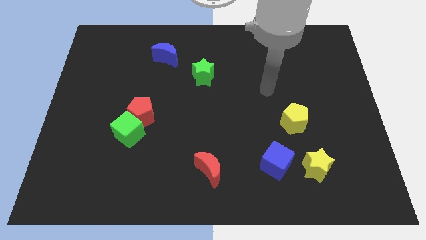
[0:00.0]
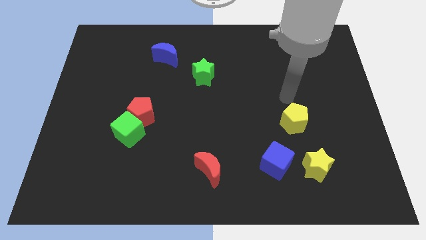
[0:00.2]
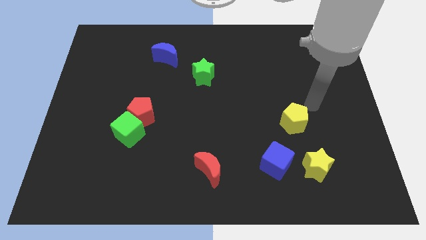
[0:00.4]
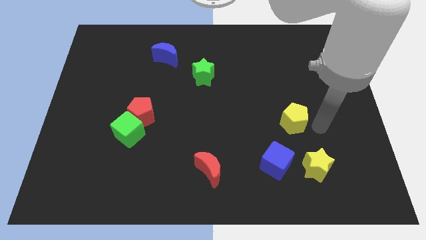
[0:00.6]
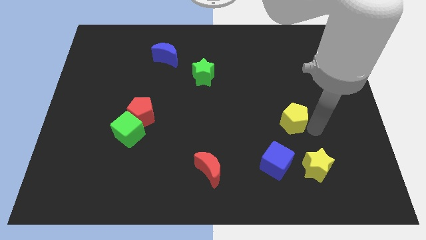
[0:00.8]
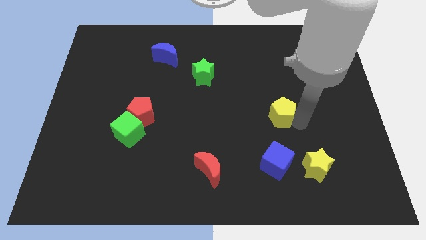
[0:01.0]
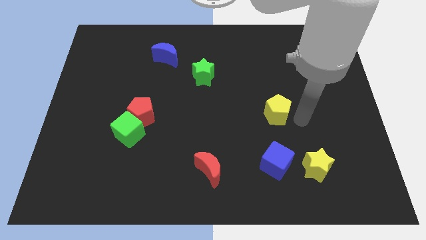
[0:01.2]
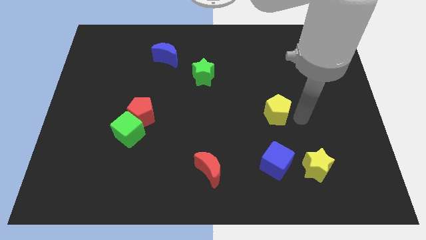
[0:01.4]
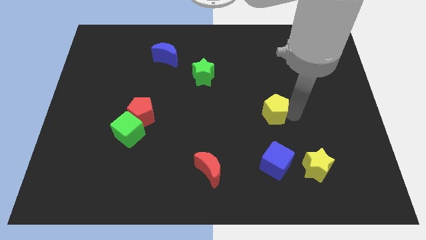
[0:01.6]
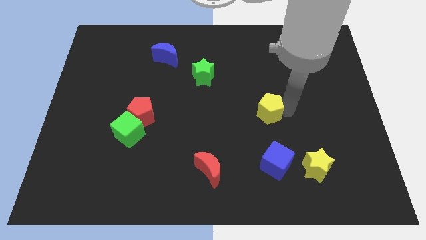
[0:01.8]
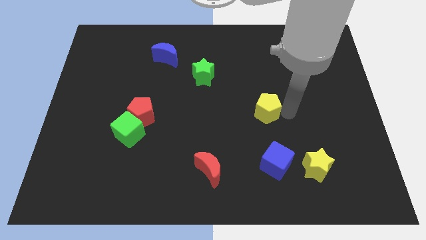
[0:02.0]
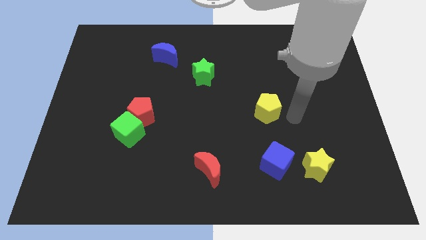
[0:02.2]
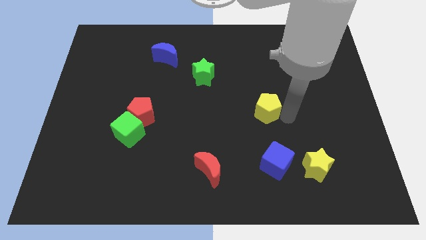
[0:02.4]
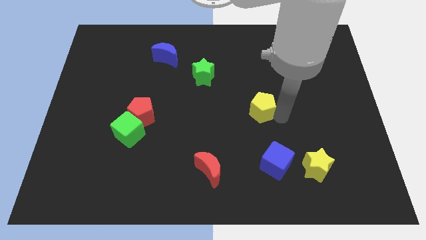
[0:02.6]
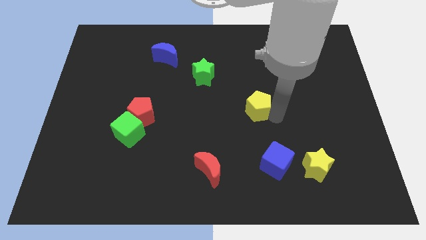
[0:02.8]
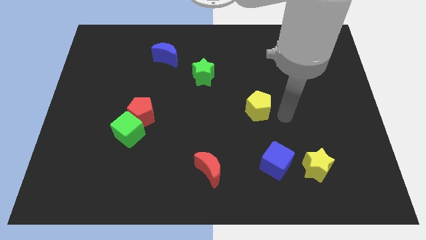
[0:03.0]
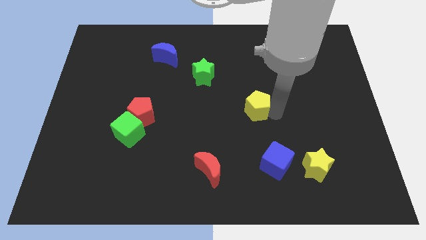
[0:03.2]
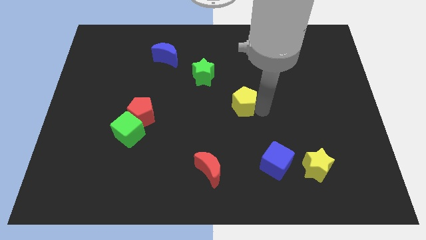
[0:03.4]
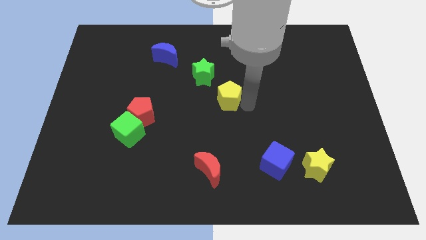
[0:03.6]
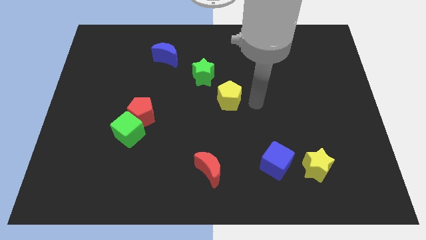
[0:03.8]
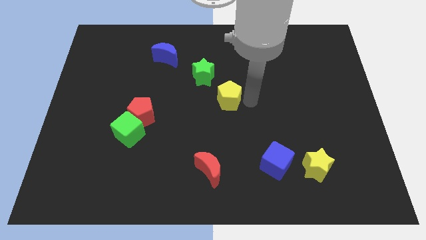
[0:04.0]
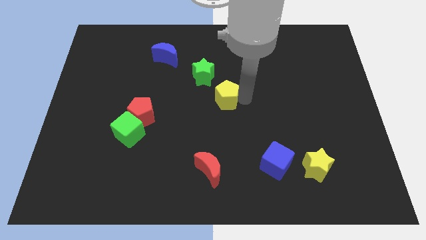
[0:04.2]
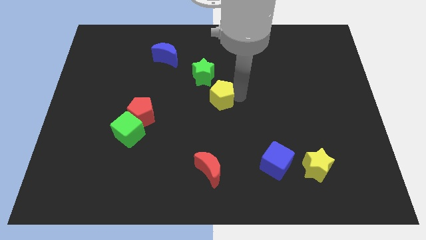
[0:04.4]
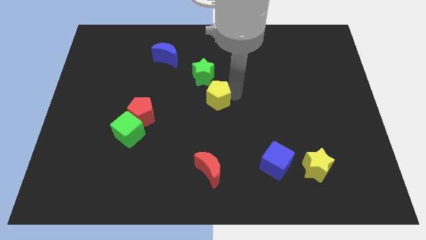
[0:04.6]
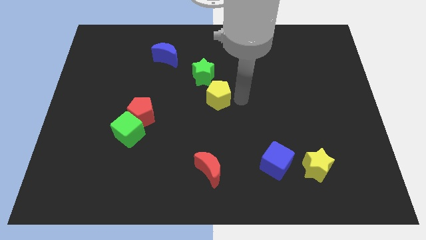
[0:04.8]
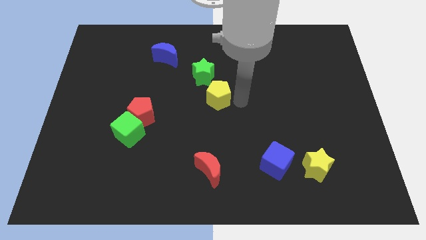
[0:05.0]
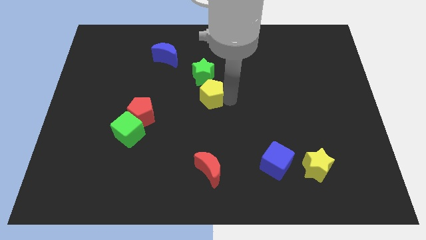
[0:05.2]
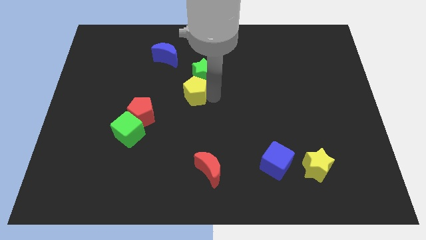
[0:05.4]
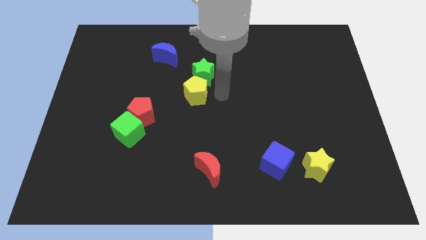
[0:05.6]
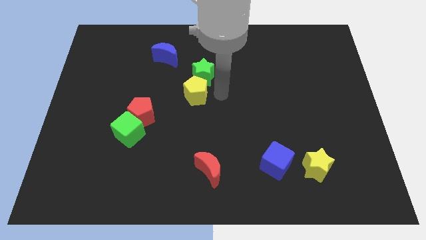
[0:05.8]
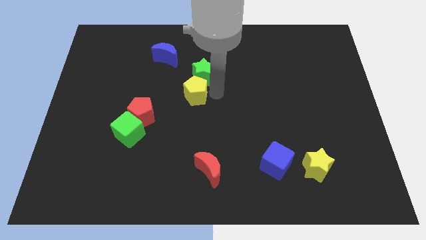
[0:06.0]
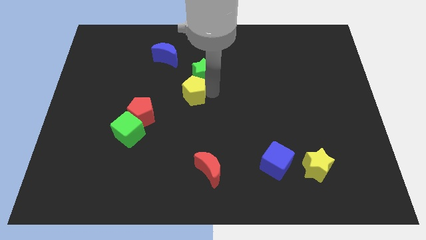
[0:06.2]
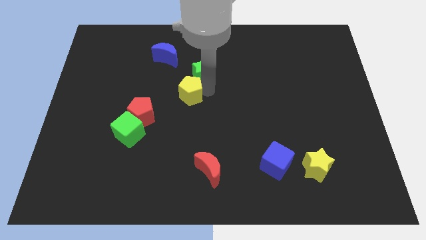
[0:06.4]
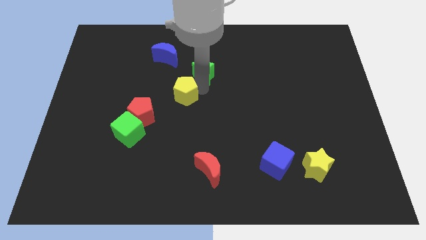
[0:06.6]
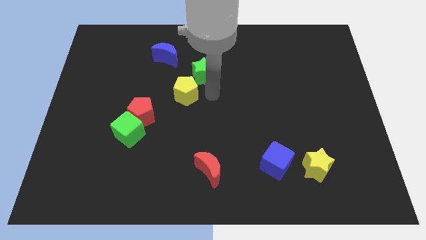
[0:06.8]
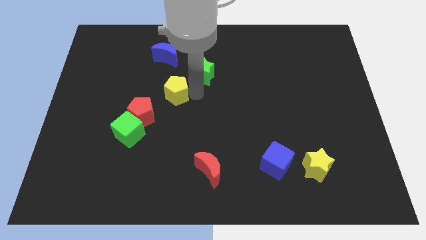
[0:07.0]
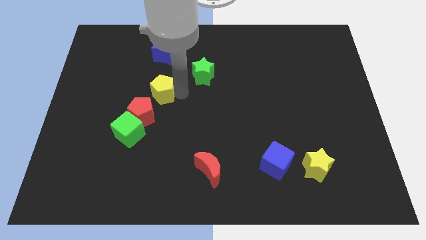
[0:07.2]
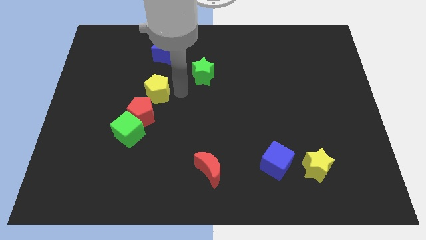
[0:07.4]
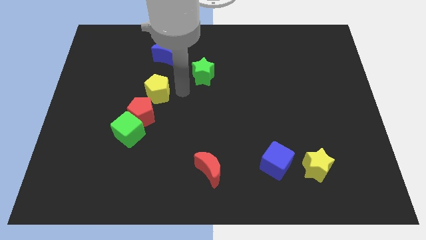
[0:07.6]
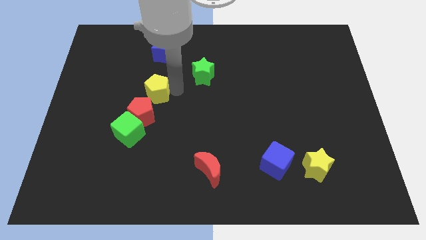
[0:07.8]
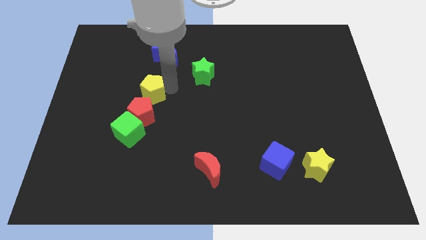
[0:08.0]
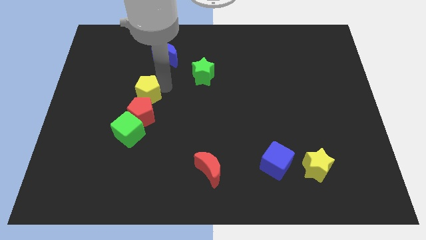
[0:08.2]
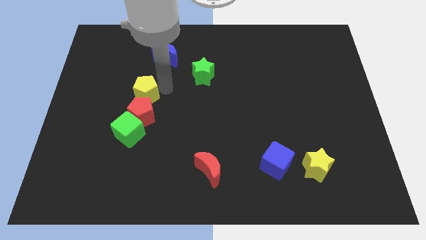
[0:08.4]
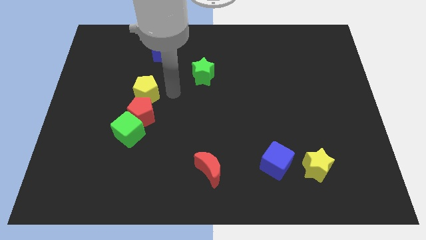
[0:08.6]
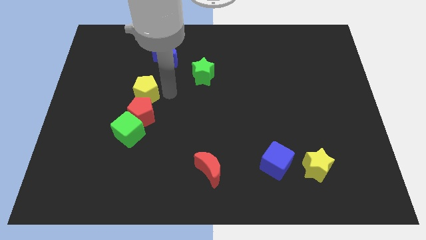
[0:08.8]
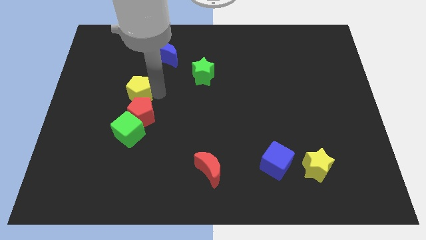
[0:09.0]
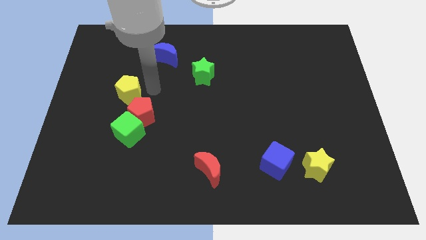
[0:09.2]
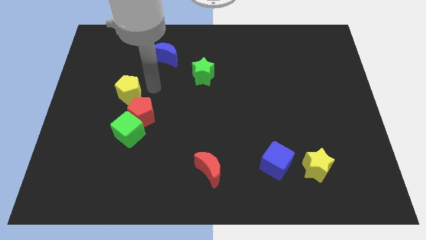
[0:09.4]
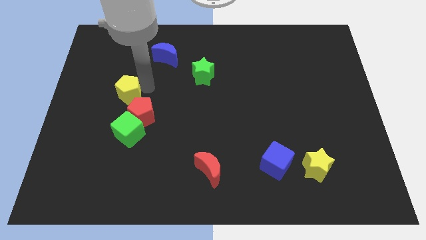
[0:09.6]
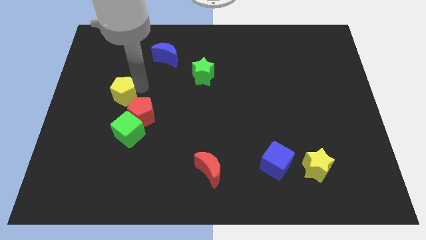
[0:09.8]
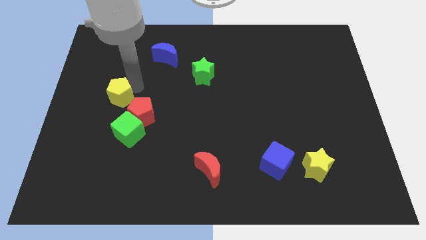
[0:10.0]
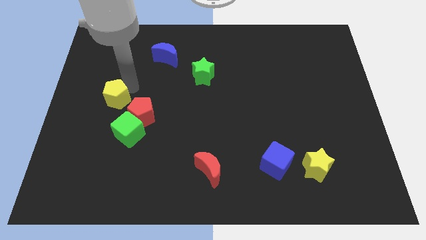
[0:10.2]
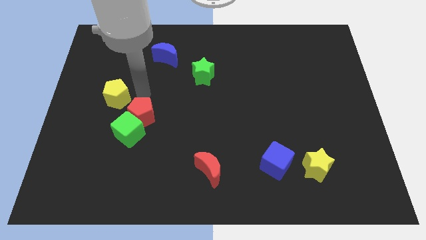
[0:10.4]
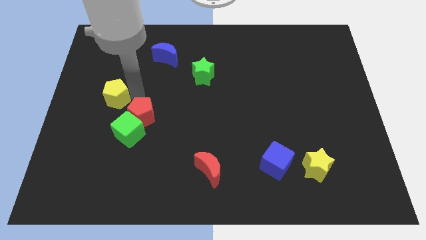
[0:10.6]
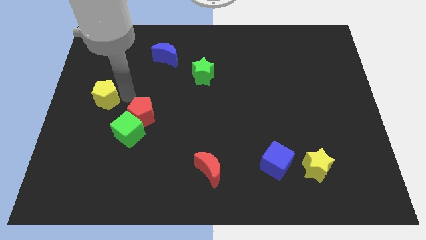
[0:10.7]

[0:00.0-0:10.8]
push the yellow pentagon to the center left

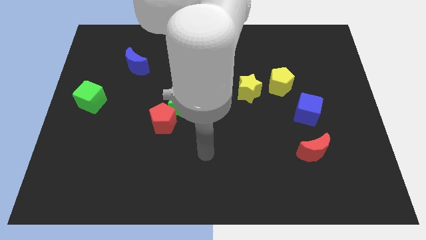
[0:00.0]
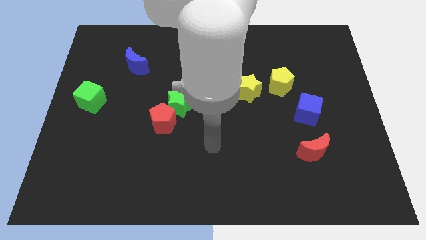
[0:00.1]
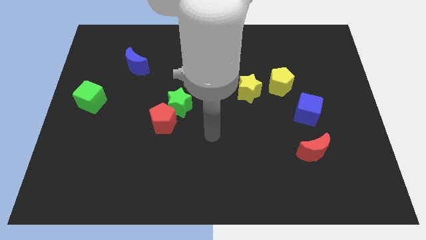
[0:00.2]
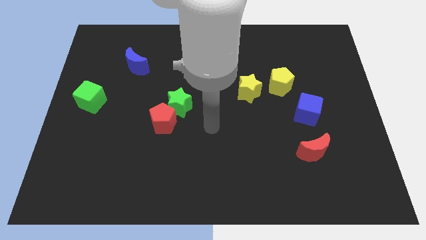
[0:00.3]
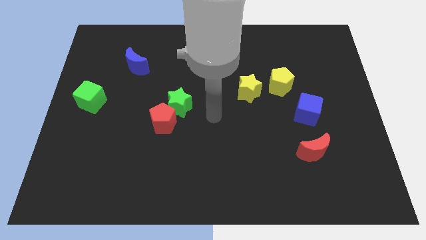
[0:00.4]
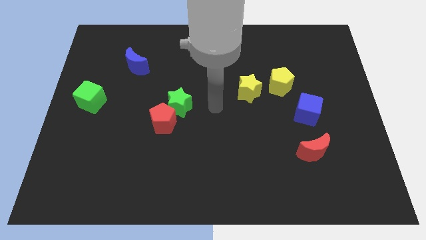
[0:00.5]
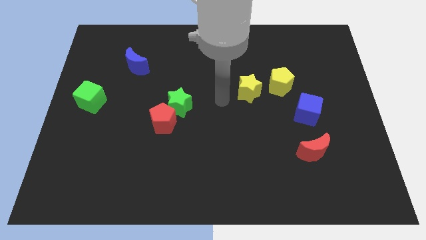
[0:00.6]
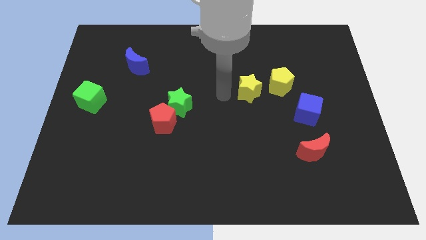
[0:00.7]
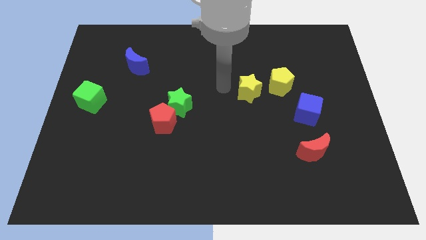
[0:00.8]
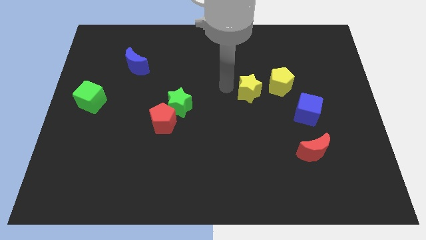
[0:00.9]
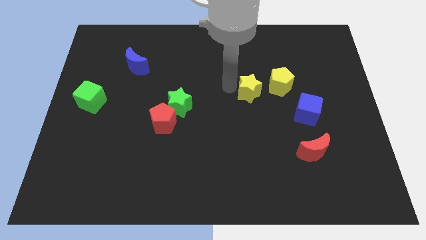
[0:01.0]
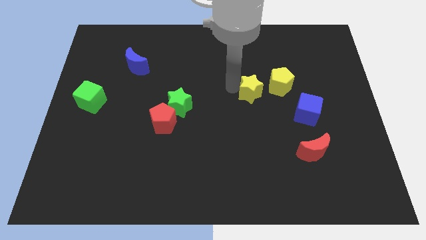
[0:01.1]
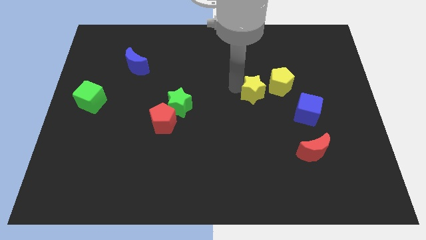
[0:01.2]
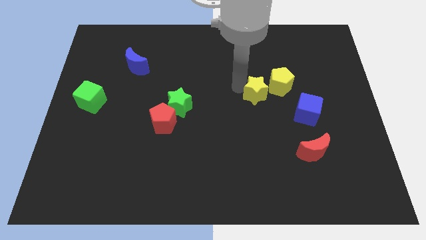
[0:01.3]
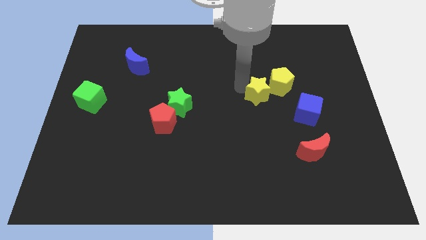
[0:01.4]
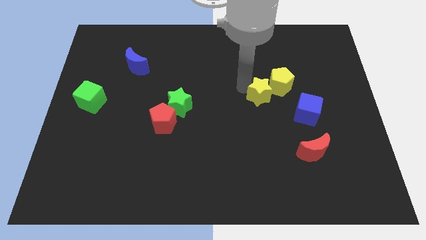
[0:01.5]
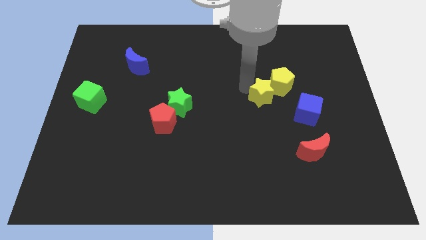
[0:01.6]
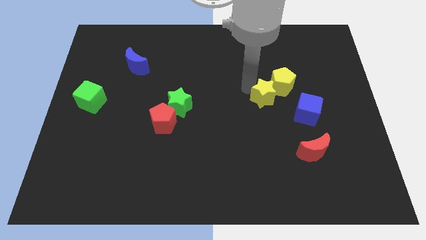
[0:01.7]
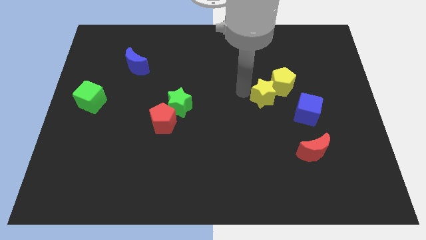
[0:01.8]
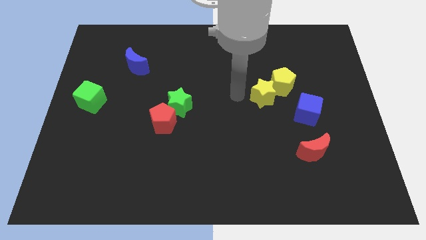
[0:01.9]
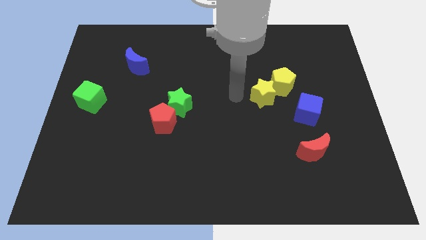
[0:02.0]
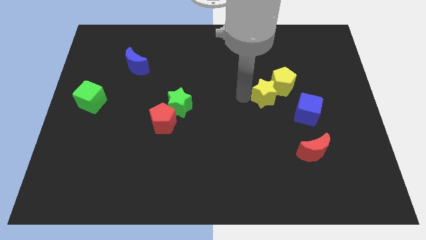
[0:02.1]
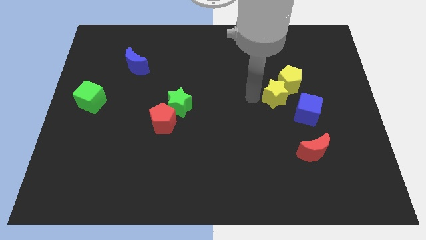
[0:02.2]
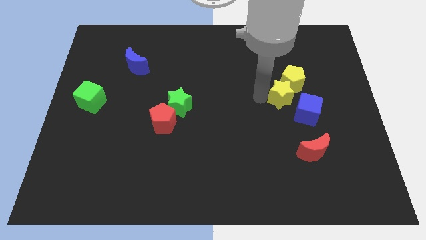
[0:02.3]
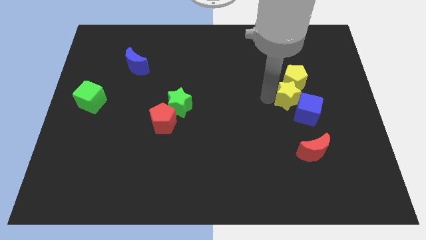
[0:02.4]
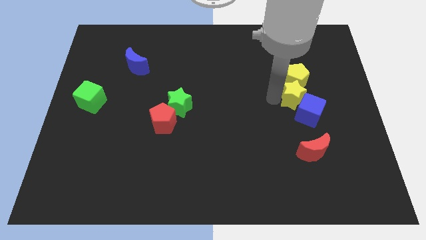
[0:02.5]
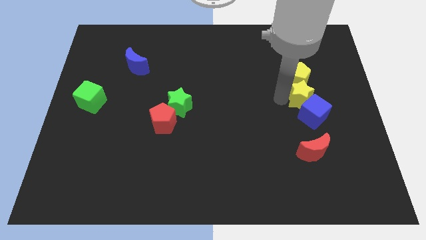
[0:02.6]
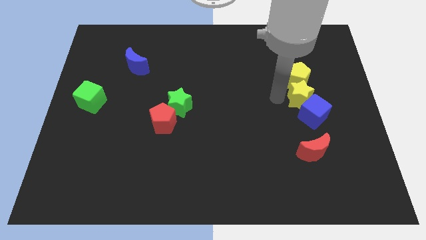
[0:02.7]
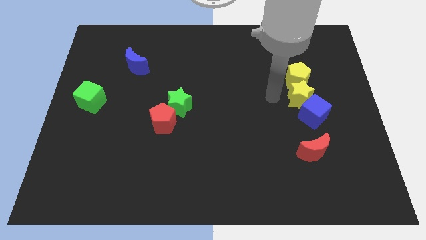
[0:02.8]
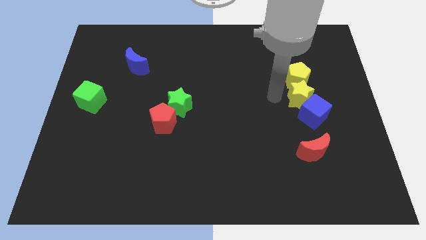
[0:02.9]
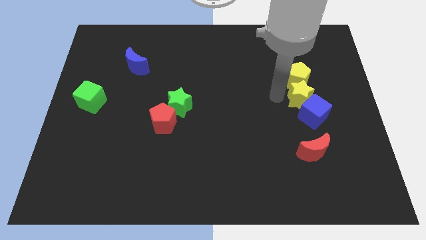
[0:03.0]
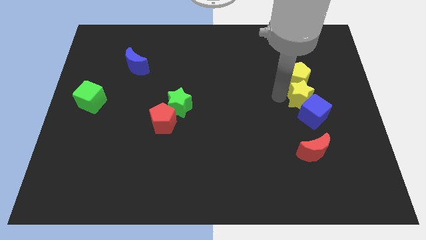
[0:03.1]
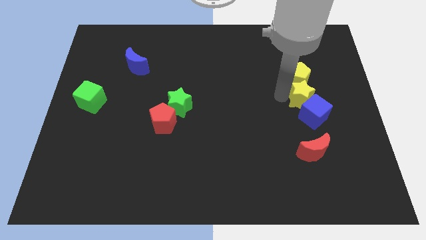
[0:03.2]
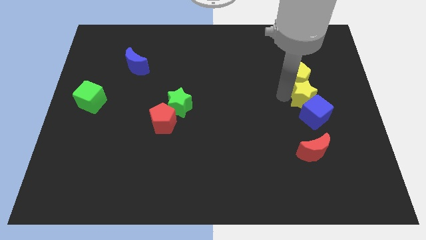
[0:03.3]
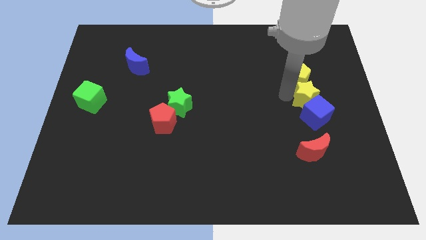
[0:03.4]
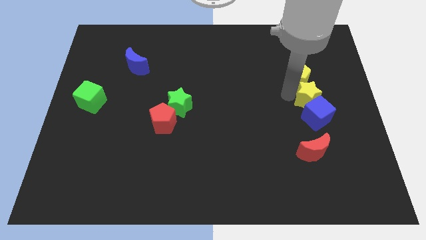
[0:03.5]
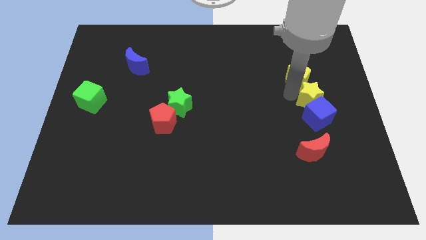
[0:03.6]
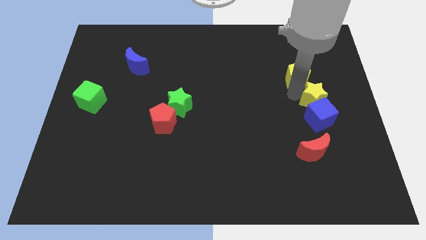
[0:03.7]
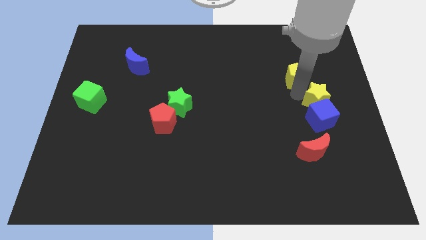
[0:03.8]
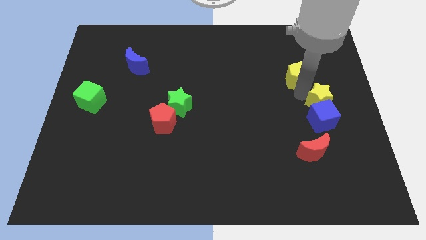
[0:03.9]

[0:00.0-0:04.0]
move the yellow star to the right side
